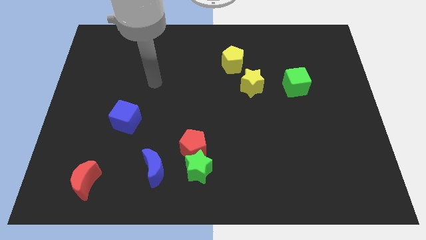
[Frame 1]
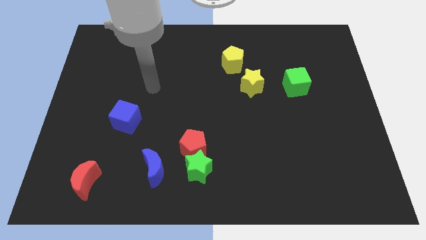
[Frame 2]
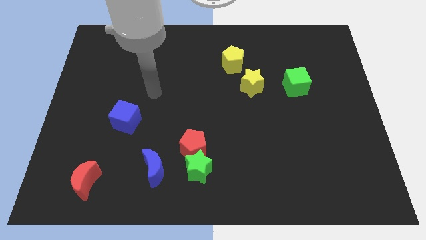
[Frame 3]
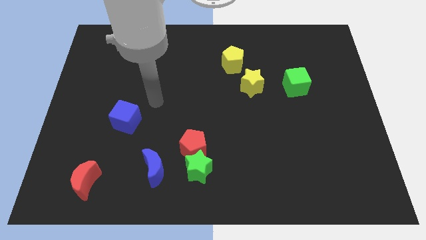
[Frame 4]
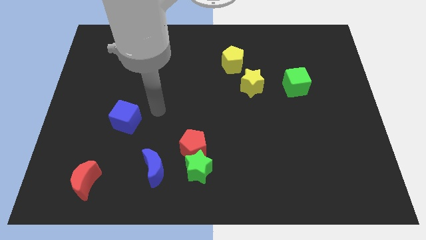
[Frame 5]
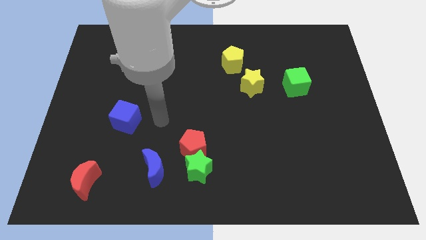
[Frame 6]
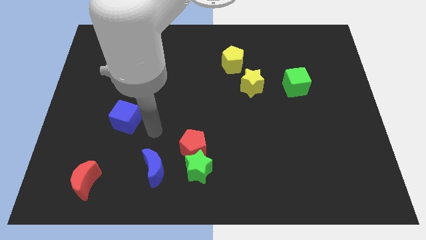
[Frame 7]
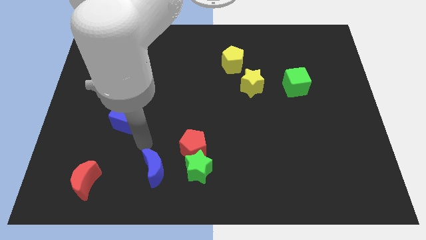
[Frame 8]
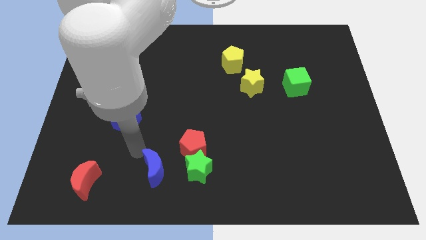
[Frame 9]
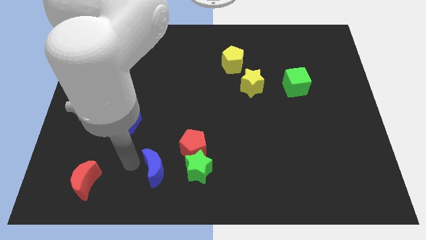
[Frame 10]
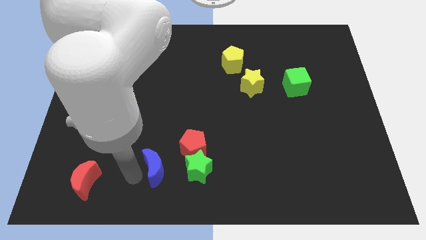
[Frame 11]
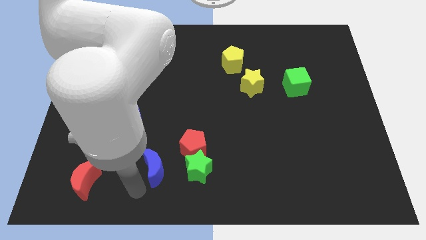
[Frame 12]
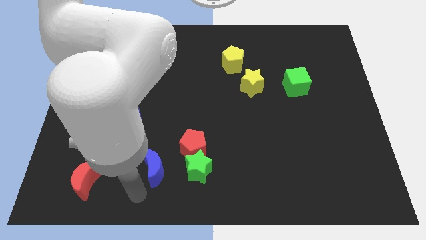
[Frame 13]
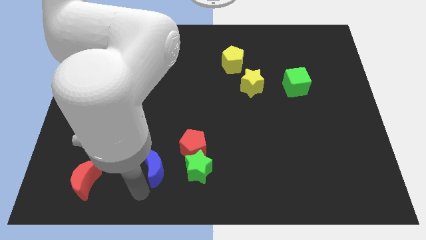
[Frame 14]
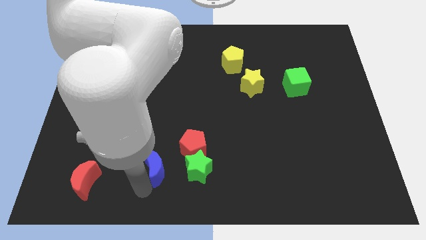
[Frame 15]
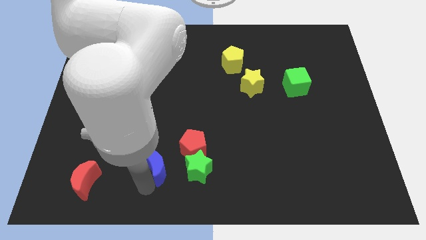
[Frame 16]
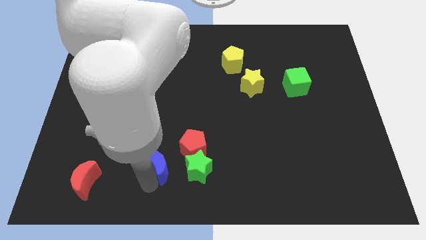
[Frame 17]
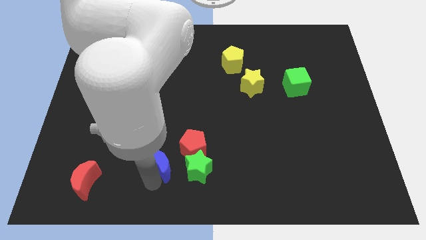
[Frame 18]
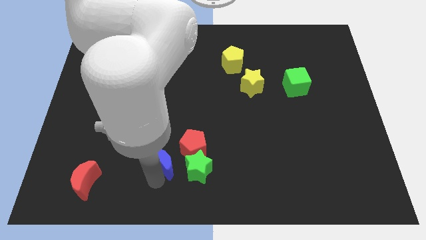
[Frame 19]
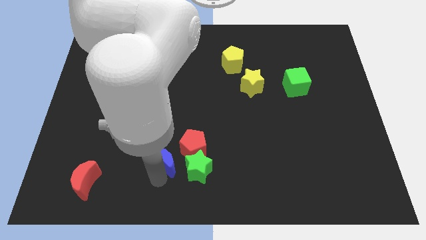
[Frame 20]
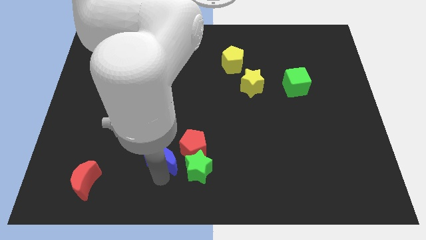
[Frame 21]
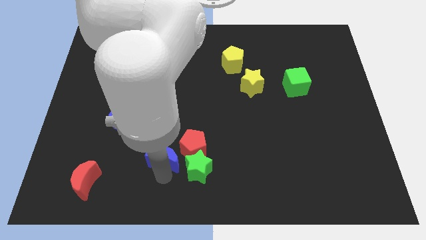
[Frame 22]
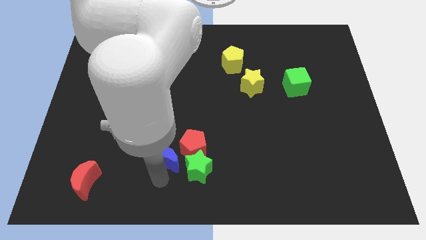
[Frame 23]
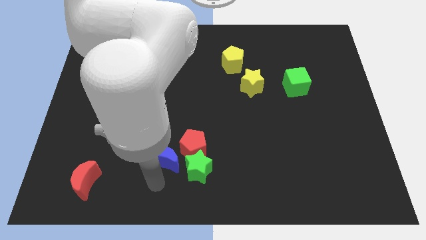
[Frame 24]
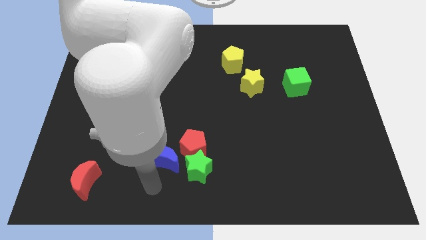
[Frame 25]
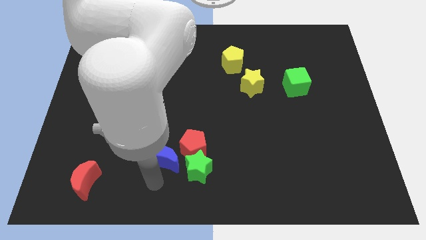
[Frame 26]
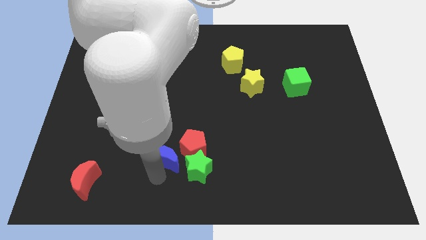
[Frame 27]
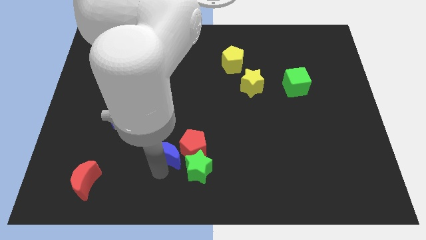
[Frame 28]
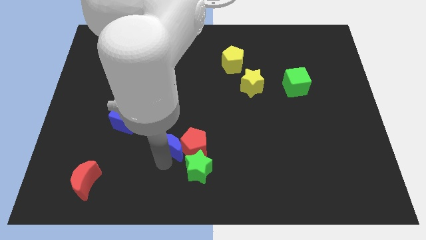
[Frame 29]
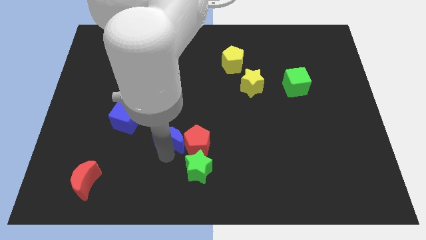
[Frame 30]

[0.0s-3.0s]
move the blue moon diagonally up and right a little

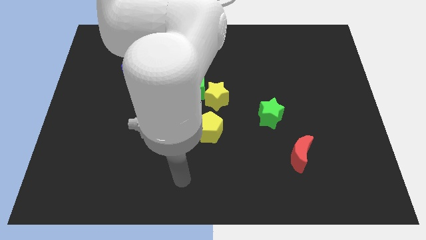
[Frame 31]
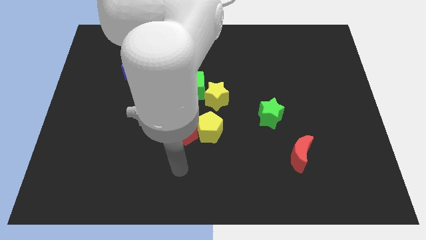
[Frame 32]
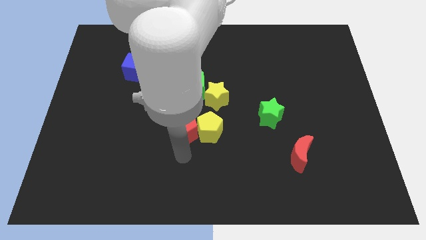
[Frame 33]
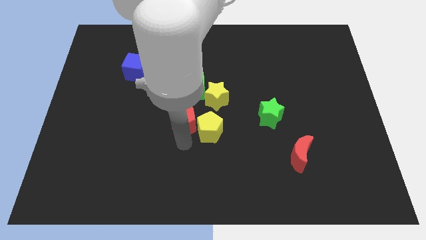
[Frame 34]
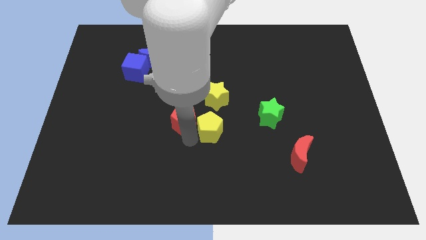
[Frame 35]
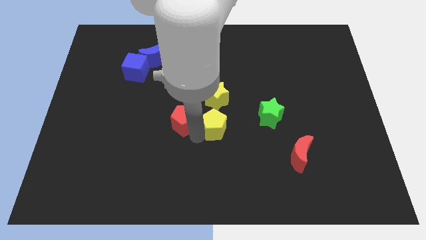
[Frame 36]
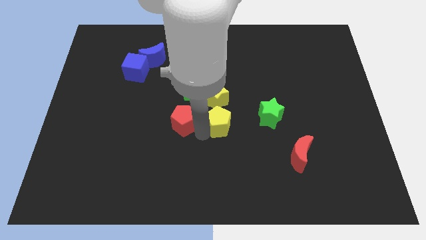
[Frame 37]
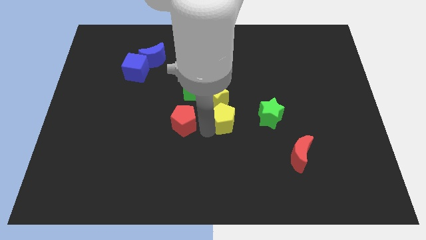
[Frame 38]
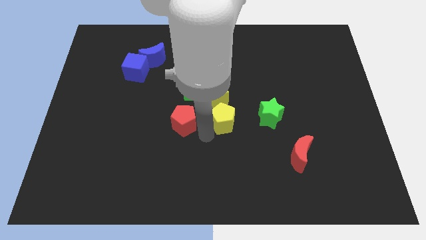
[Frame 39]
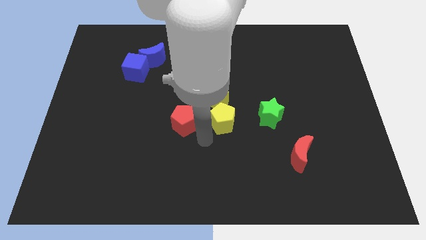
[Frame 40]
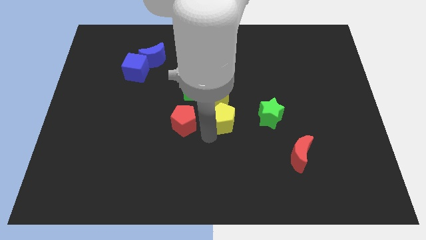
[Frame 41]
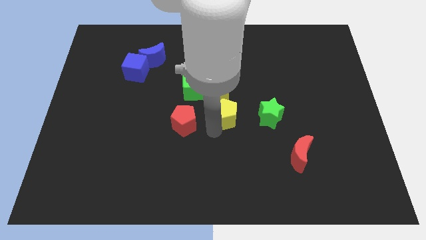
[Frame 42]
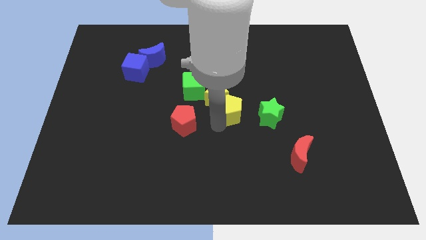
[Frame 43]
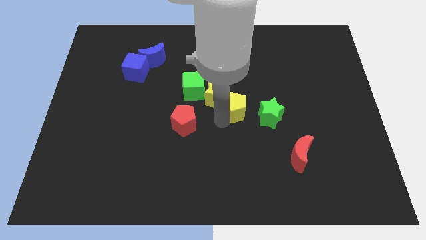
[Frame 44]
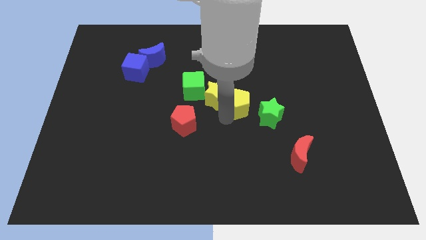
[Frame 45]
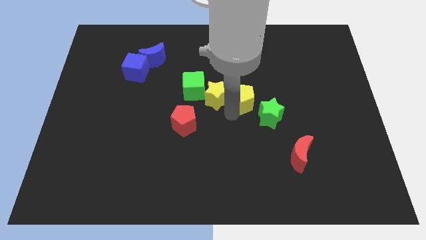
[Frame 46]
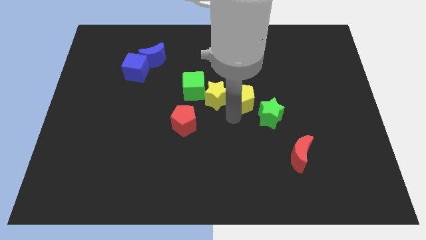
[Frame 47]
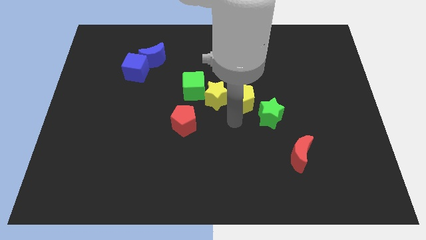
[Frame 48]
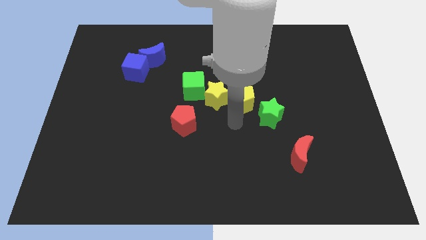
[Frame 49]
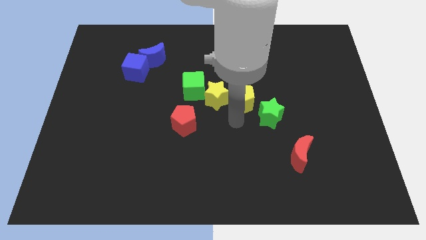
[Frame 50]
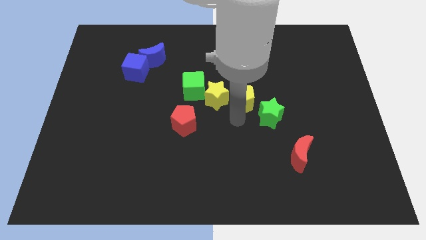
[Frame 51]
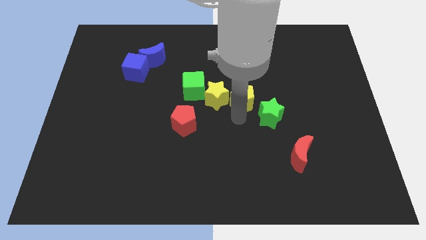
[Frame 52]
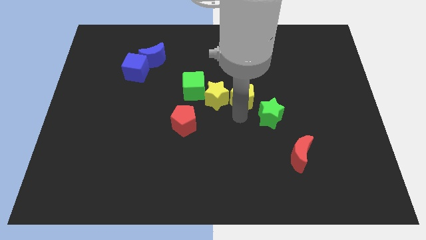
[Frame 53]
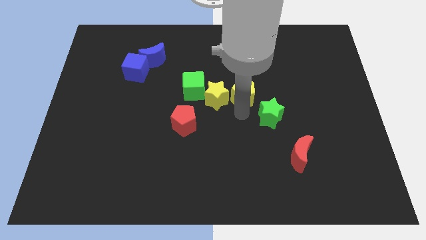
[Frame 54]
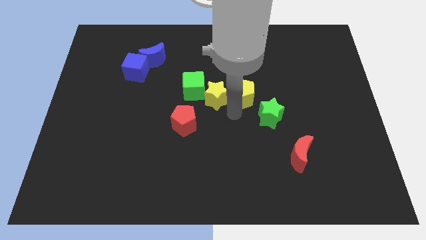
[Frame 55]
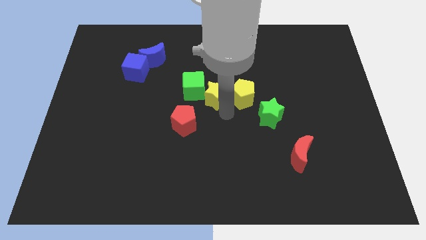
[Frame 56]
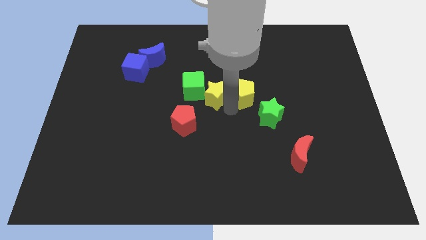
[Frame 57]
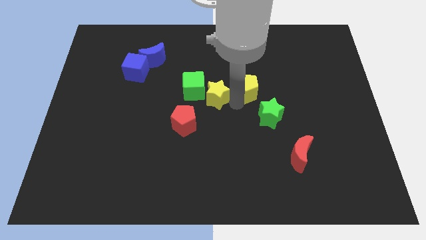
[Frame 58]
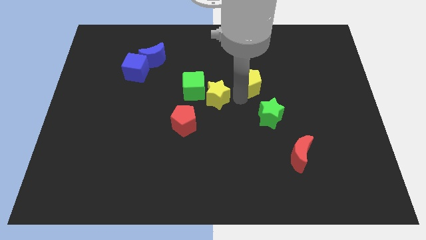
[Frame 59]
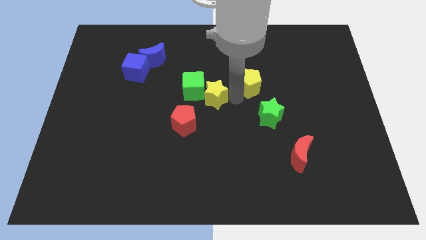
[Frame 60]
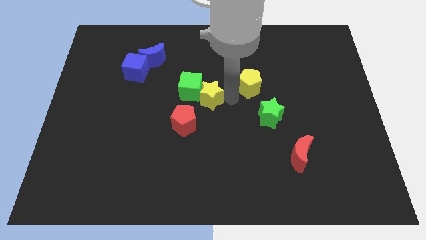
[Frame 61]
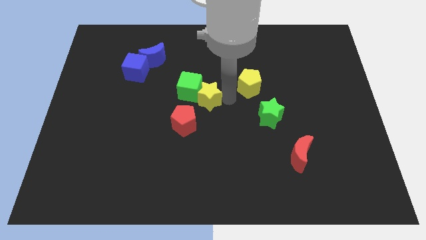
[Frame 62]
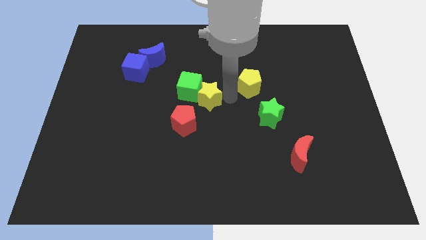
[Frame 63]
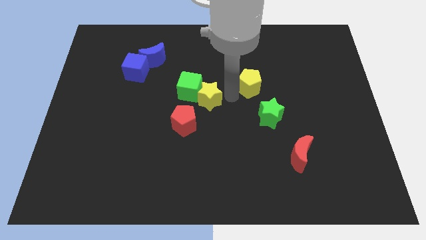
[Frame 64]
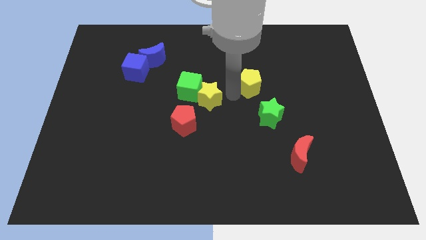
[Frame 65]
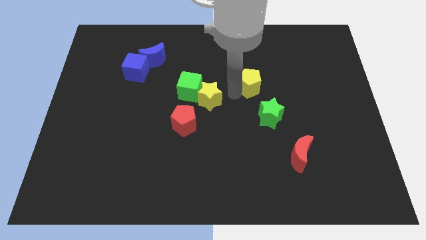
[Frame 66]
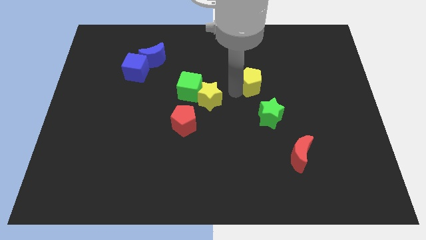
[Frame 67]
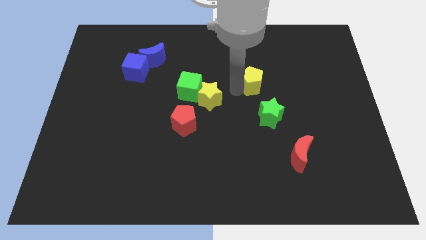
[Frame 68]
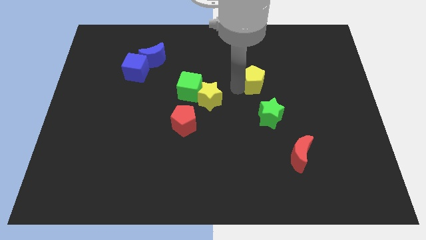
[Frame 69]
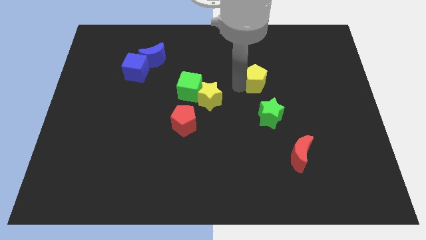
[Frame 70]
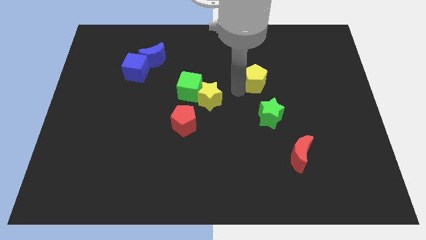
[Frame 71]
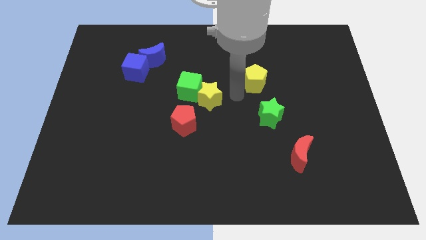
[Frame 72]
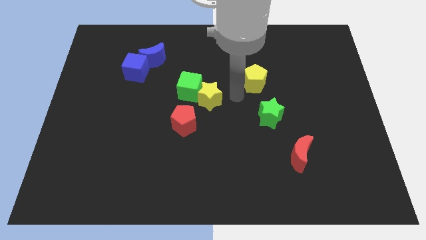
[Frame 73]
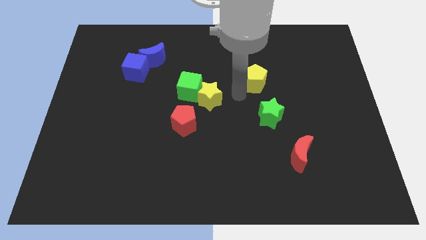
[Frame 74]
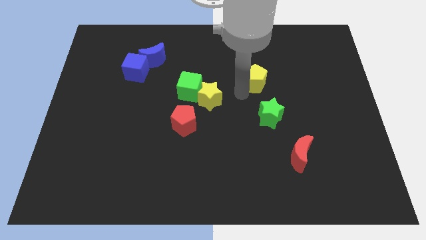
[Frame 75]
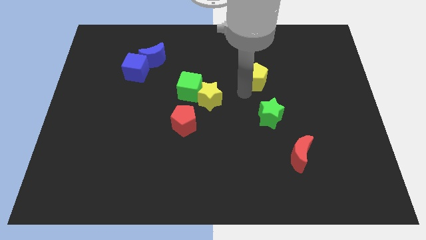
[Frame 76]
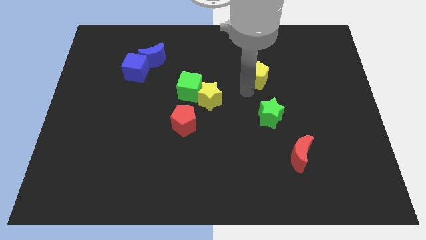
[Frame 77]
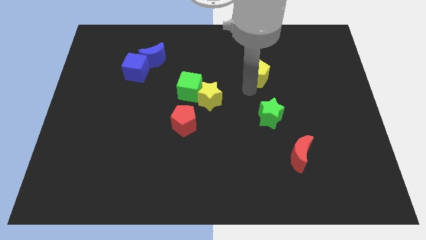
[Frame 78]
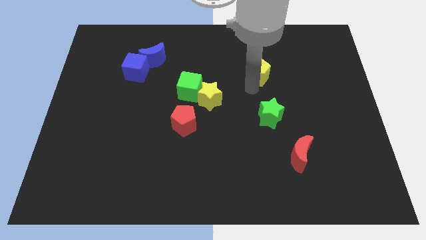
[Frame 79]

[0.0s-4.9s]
push the yellow pentagon upwards and right

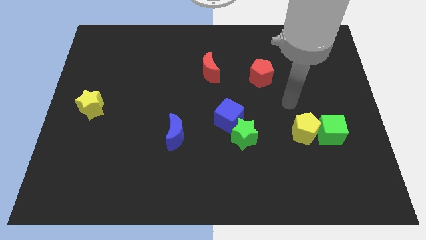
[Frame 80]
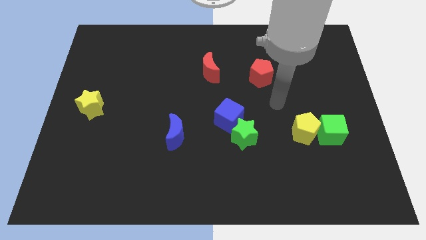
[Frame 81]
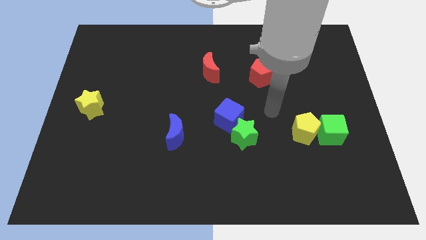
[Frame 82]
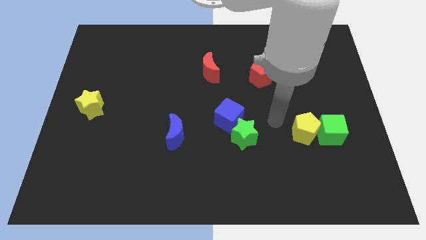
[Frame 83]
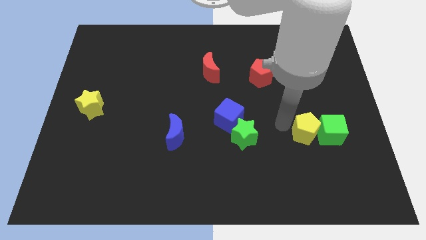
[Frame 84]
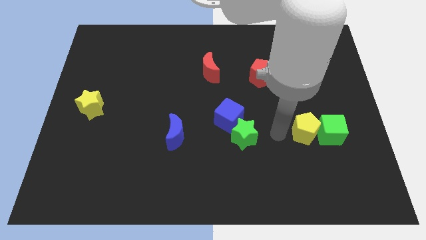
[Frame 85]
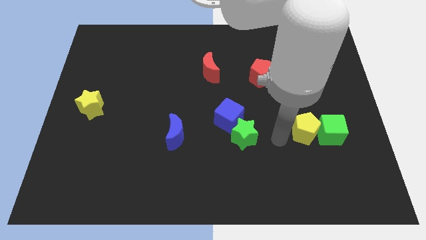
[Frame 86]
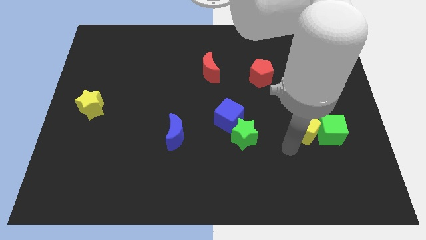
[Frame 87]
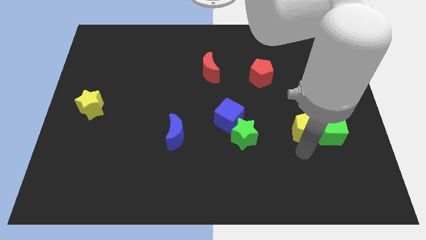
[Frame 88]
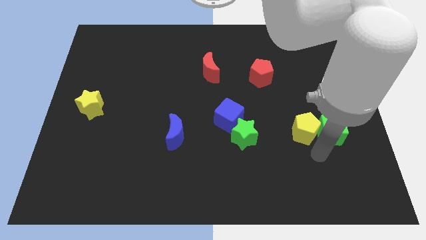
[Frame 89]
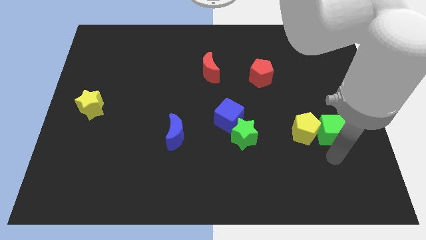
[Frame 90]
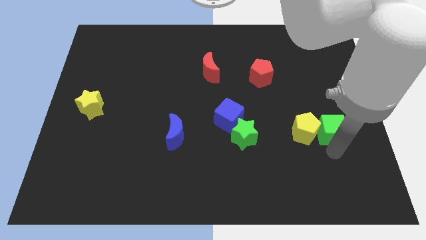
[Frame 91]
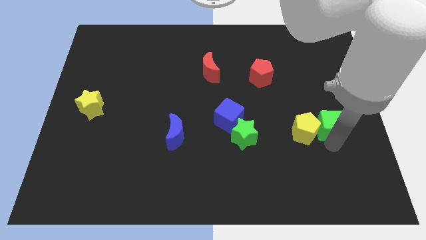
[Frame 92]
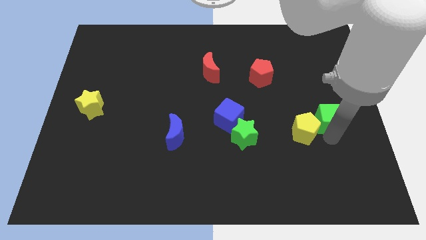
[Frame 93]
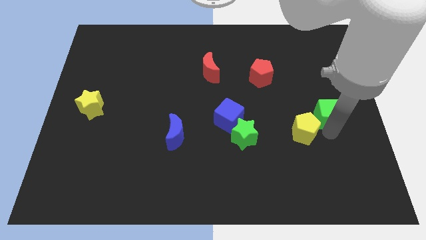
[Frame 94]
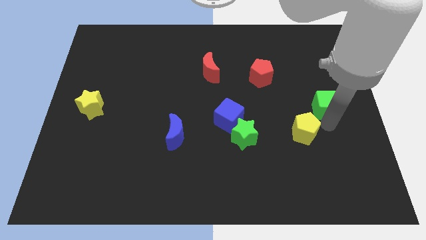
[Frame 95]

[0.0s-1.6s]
push the green cube upwards somewhat
